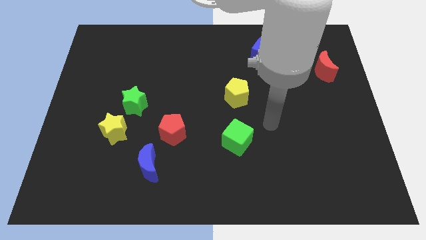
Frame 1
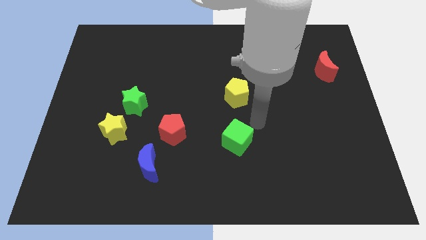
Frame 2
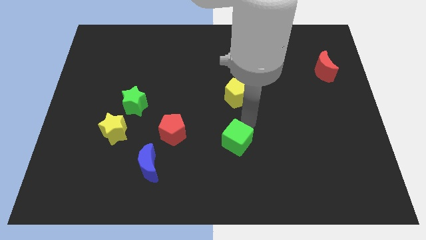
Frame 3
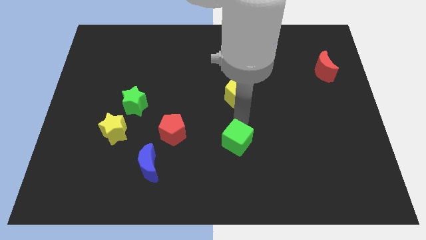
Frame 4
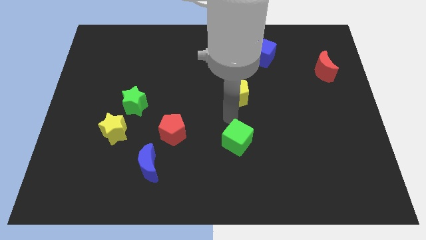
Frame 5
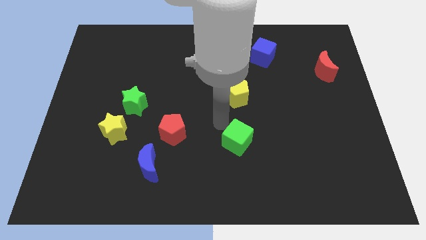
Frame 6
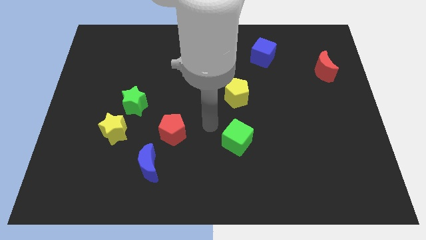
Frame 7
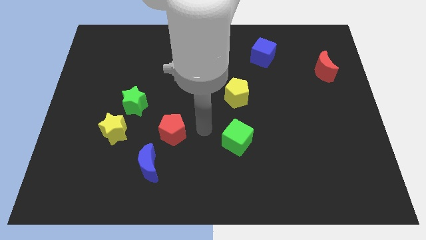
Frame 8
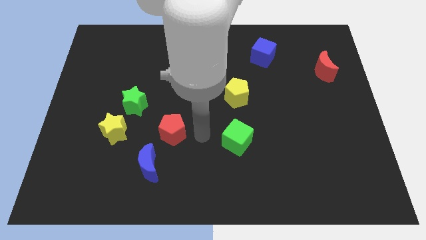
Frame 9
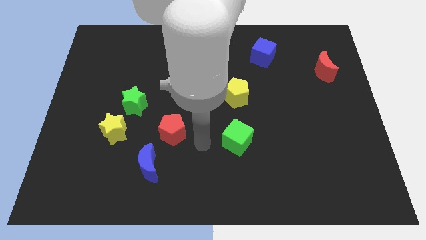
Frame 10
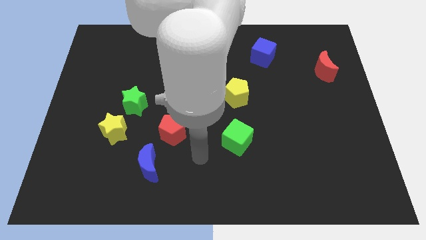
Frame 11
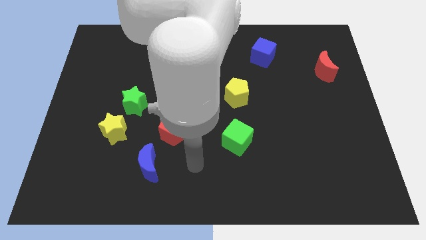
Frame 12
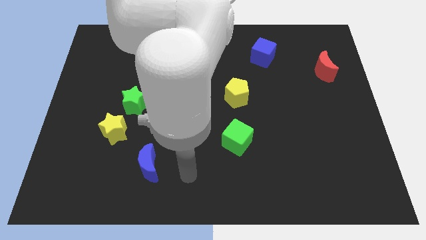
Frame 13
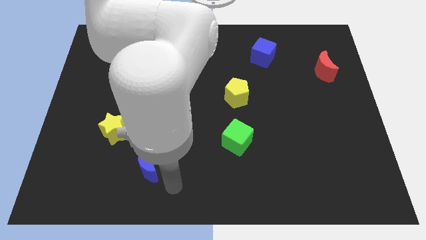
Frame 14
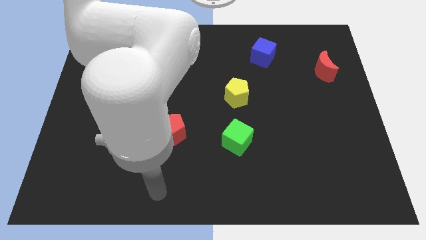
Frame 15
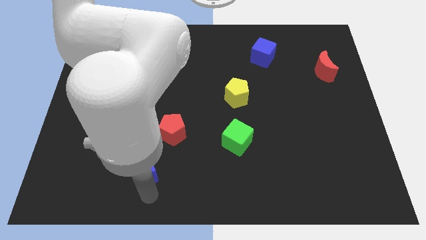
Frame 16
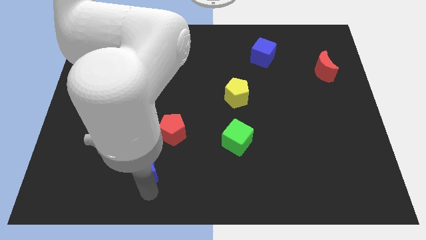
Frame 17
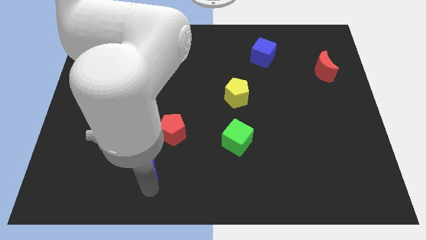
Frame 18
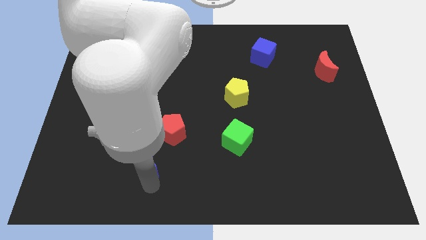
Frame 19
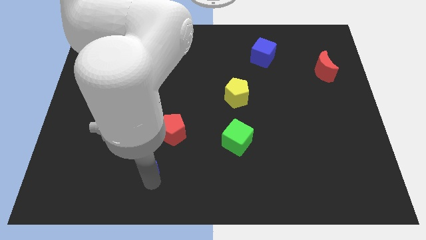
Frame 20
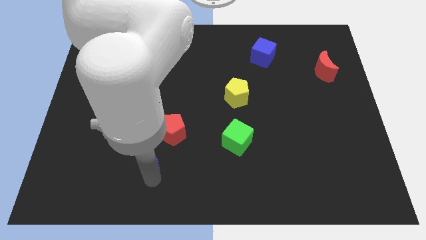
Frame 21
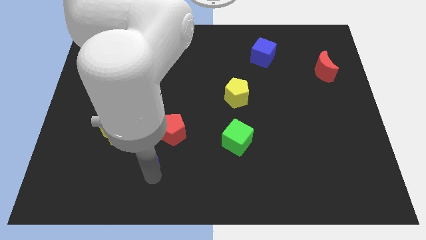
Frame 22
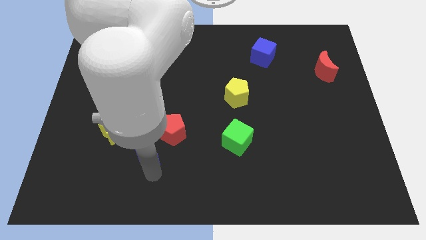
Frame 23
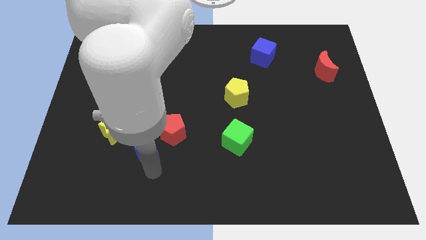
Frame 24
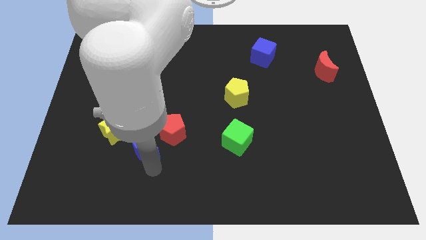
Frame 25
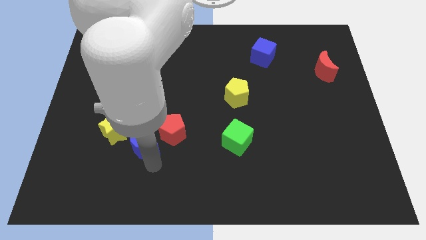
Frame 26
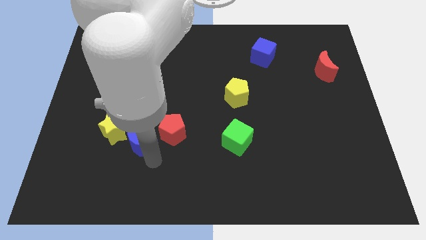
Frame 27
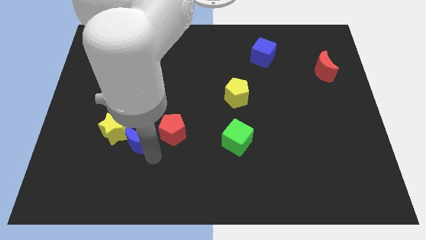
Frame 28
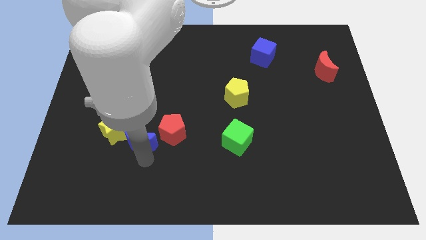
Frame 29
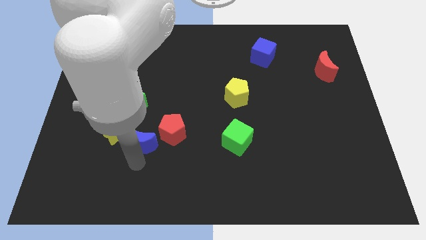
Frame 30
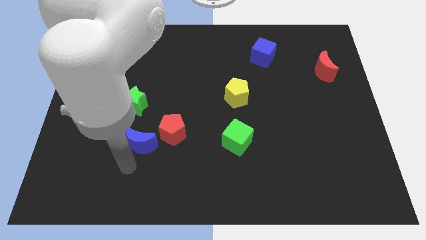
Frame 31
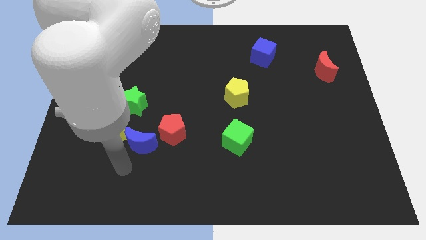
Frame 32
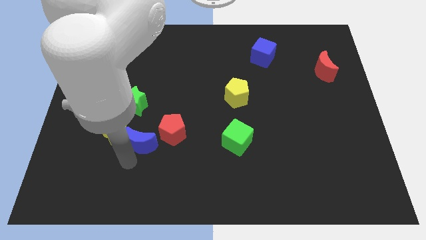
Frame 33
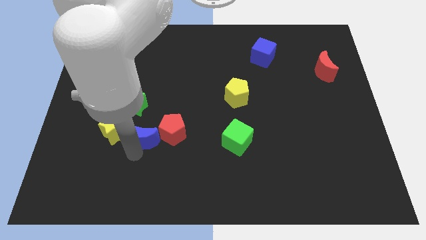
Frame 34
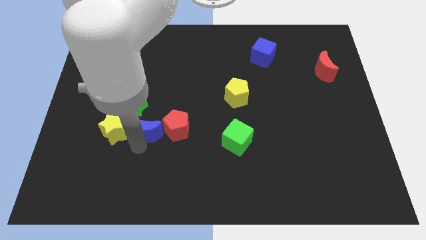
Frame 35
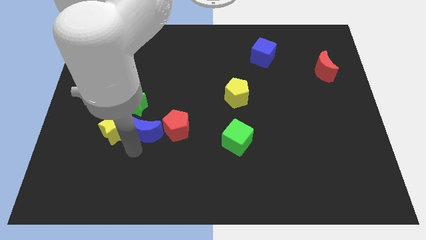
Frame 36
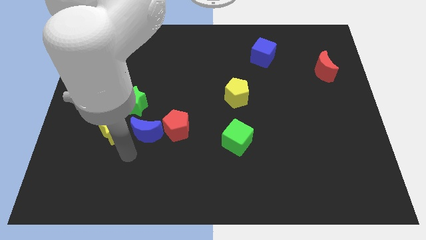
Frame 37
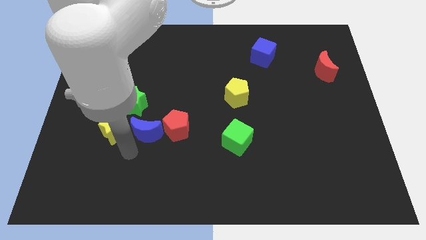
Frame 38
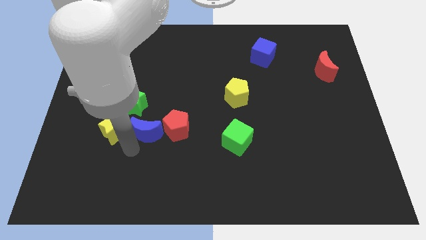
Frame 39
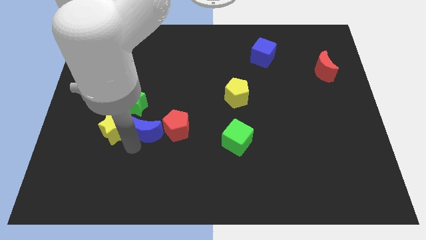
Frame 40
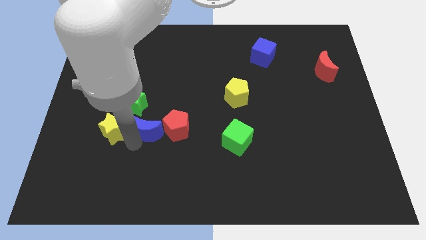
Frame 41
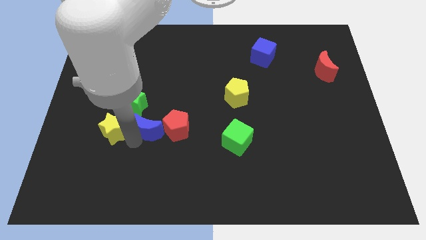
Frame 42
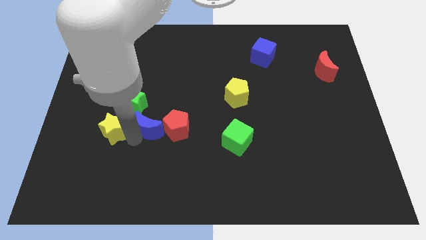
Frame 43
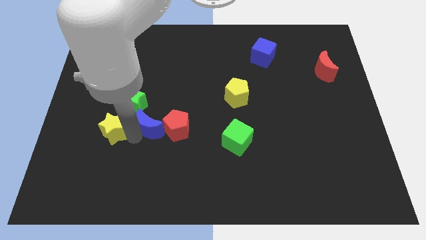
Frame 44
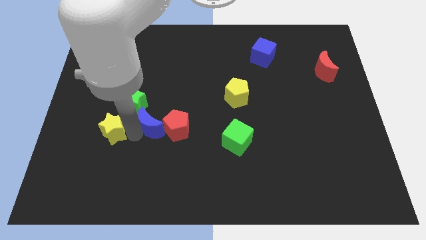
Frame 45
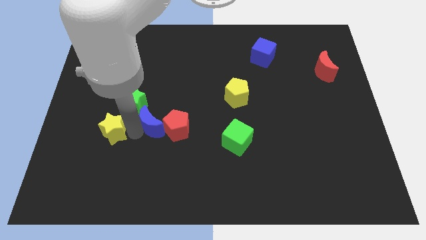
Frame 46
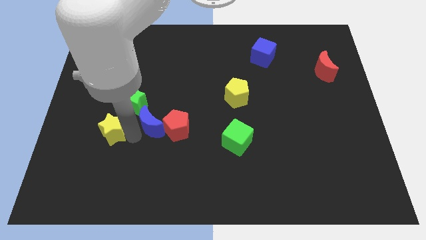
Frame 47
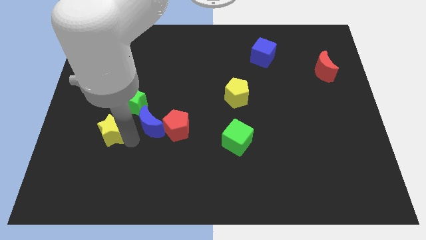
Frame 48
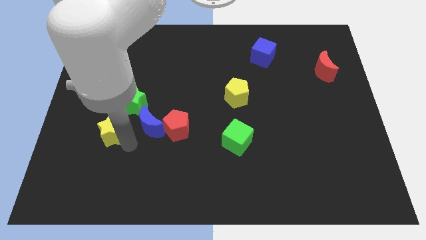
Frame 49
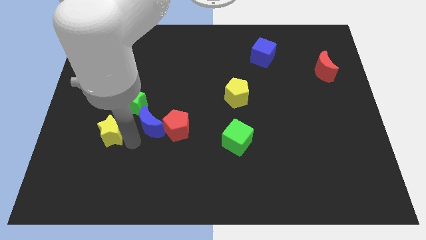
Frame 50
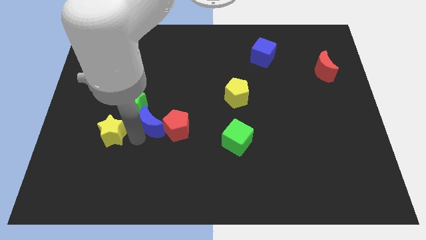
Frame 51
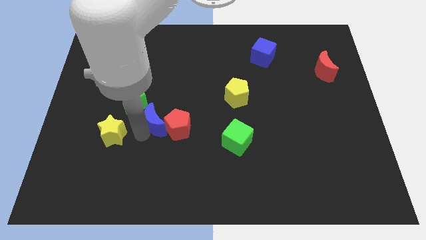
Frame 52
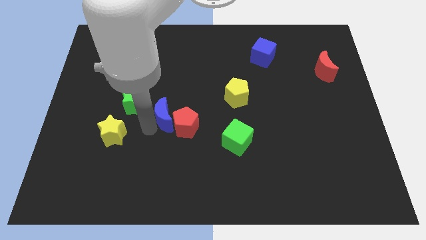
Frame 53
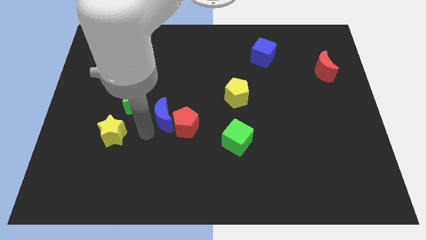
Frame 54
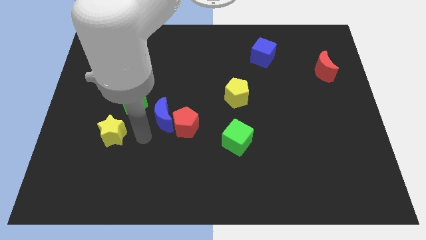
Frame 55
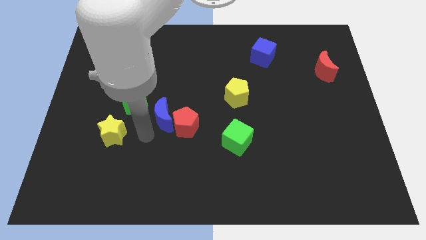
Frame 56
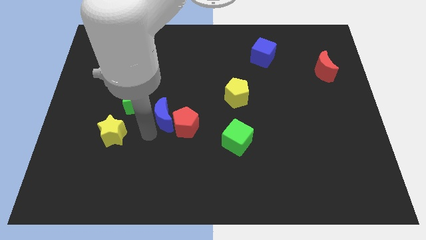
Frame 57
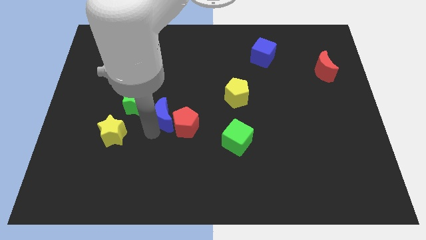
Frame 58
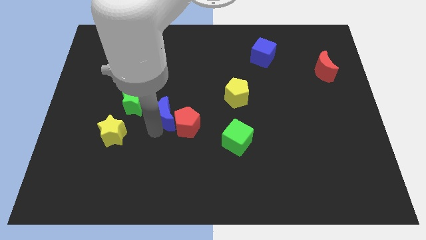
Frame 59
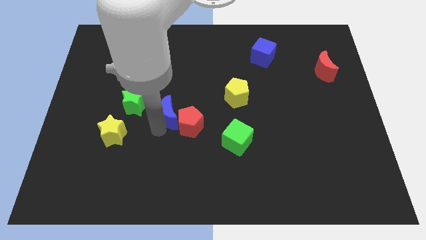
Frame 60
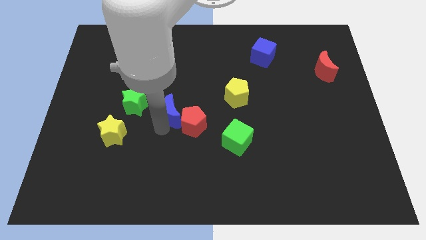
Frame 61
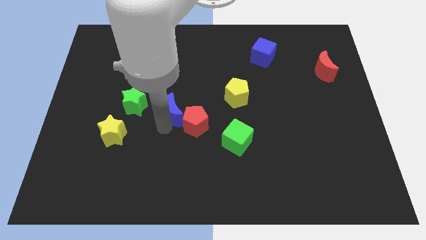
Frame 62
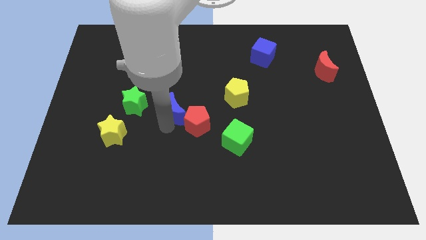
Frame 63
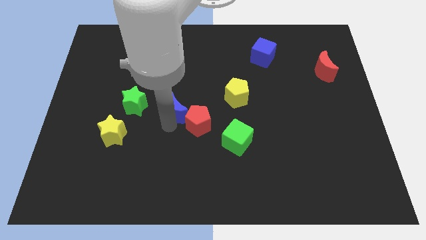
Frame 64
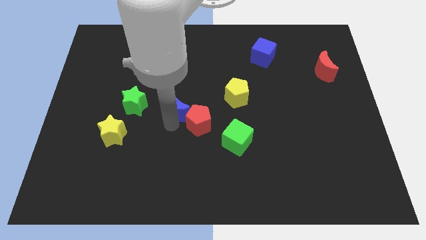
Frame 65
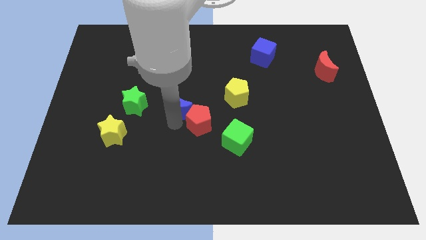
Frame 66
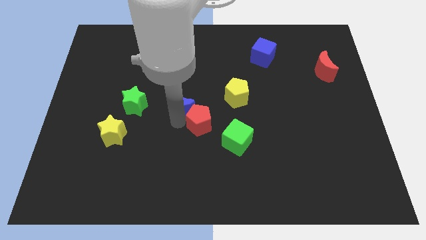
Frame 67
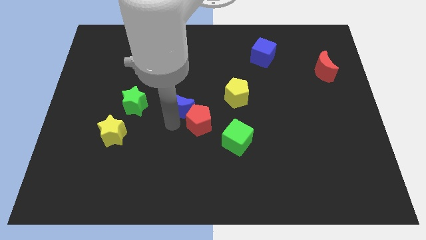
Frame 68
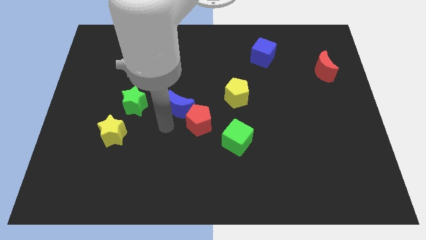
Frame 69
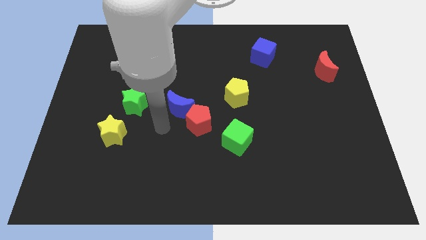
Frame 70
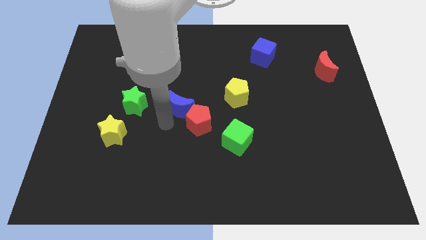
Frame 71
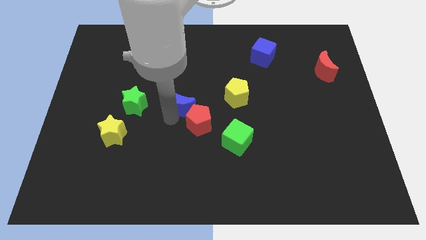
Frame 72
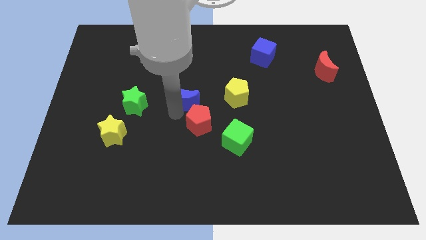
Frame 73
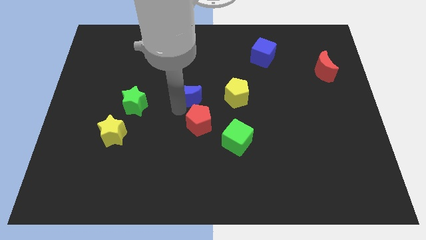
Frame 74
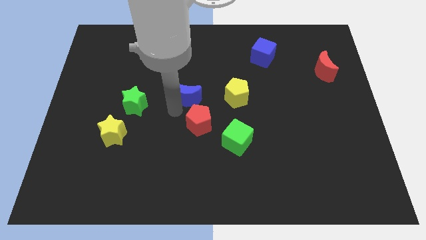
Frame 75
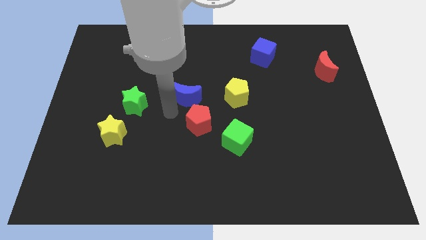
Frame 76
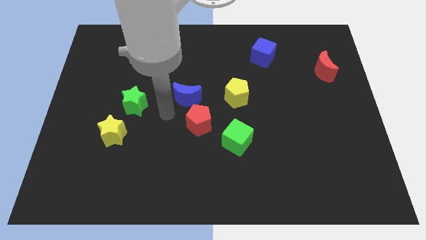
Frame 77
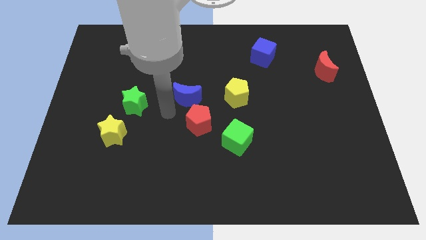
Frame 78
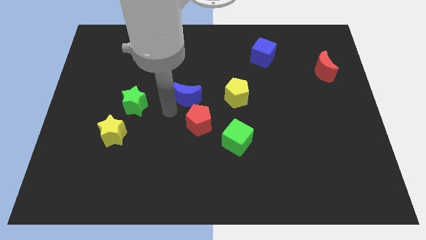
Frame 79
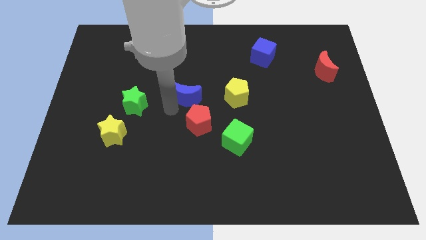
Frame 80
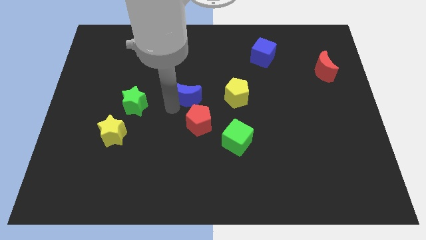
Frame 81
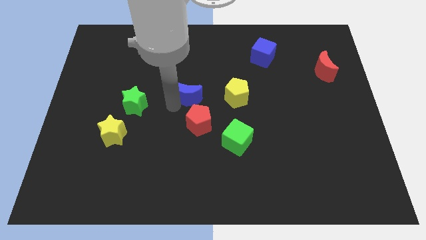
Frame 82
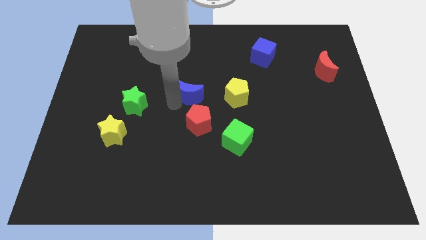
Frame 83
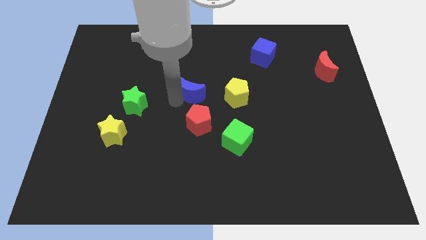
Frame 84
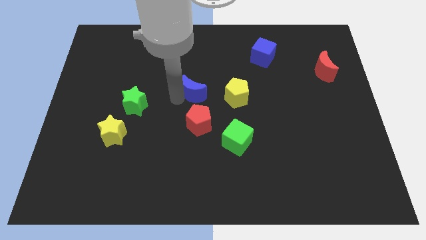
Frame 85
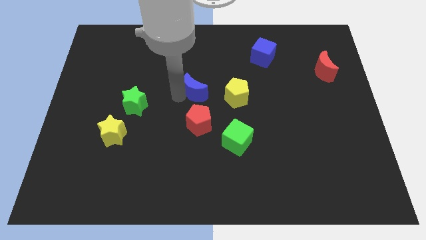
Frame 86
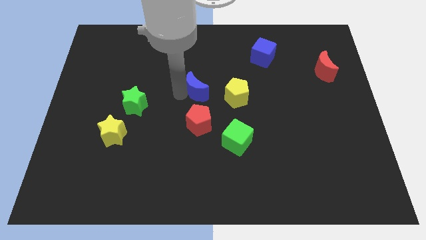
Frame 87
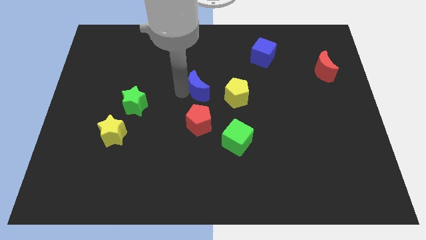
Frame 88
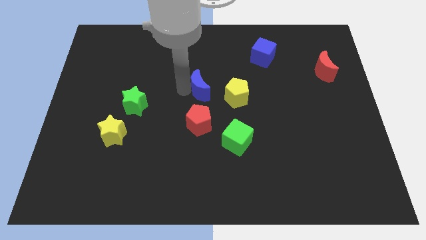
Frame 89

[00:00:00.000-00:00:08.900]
push the blue moon diagonally up and to the left of the yellow pentagon
